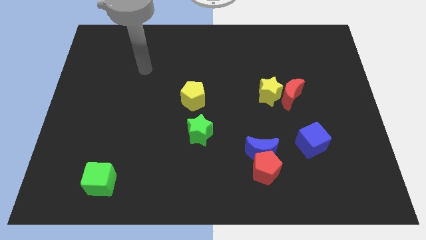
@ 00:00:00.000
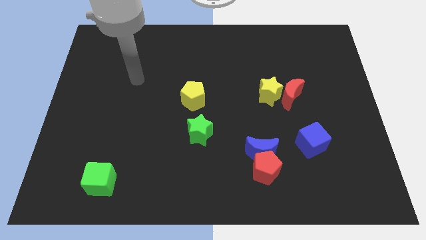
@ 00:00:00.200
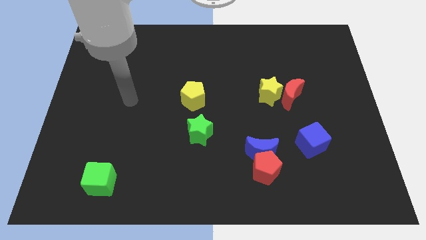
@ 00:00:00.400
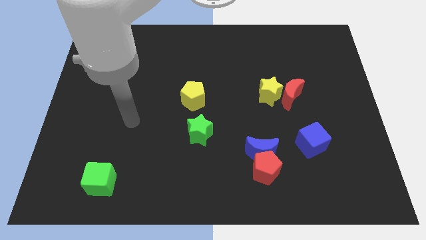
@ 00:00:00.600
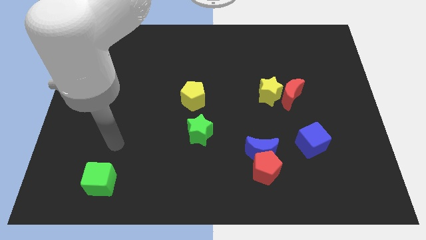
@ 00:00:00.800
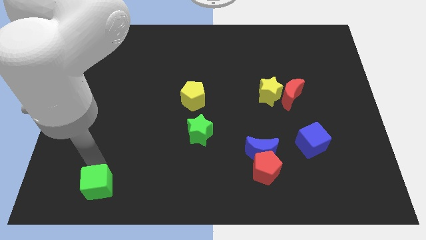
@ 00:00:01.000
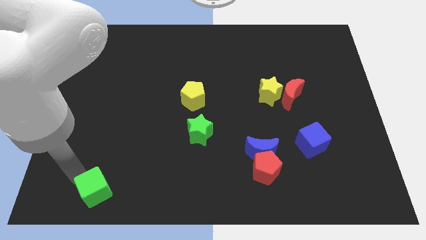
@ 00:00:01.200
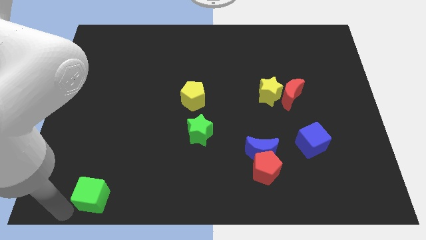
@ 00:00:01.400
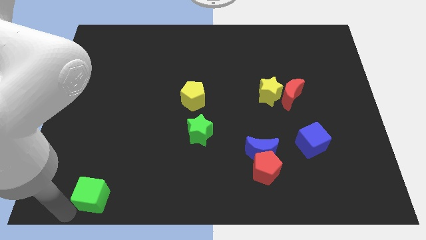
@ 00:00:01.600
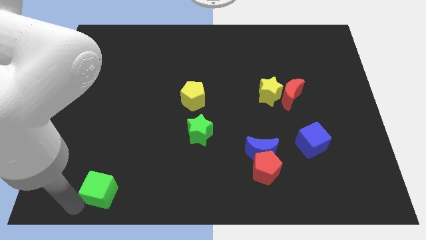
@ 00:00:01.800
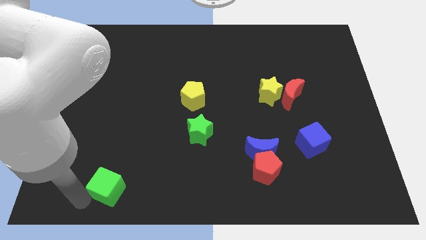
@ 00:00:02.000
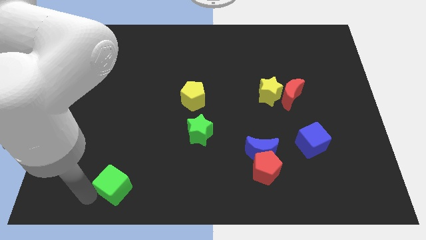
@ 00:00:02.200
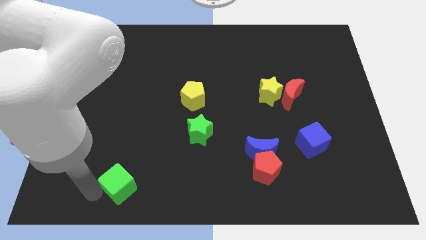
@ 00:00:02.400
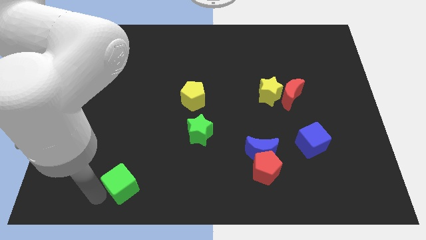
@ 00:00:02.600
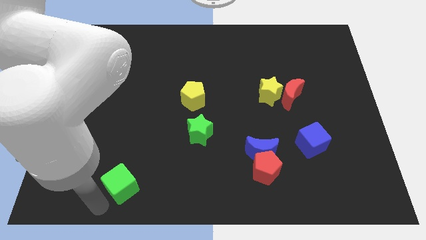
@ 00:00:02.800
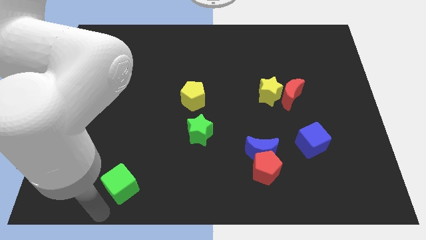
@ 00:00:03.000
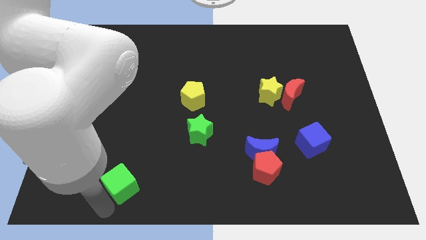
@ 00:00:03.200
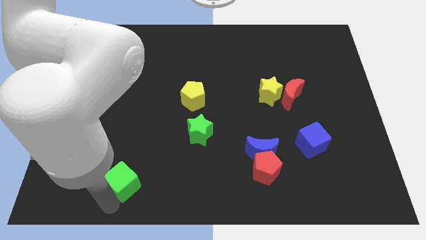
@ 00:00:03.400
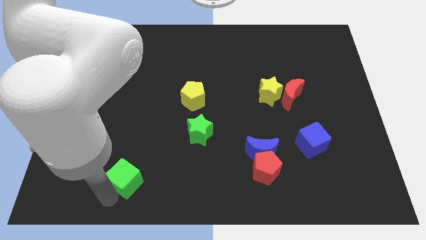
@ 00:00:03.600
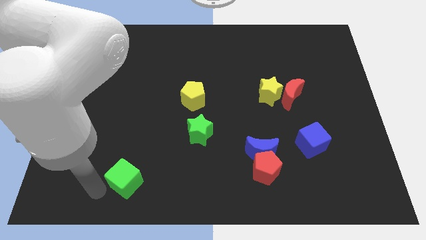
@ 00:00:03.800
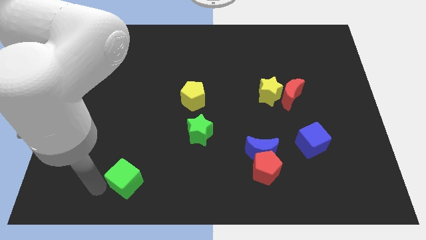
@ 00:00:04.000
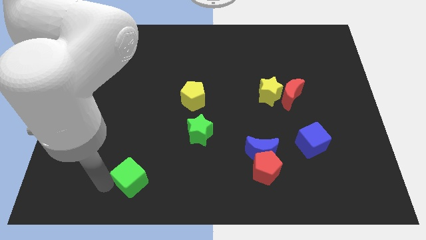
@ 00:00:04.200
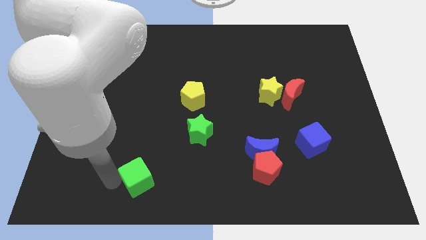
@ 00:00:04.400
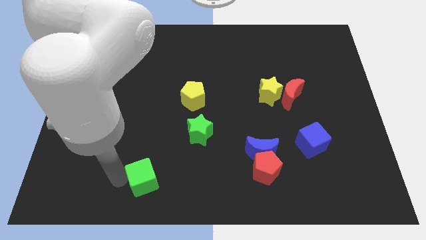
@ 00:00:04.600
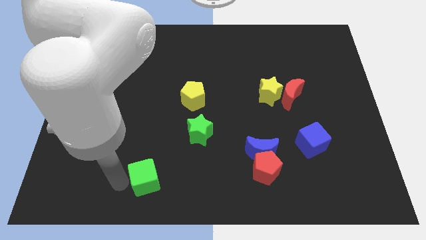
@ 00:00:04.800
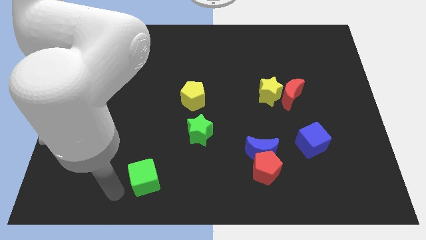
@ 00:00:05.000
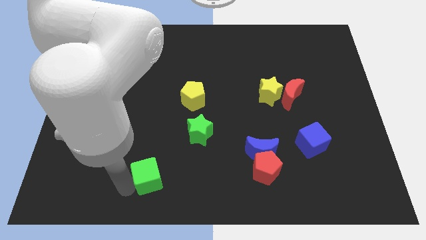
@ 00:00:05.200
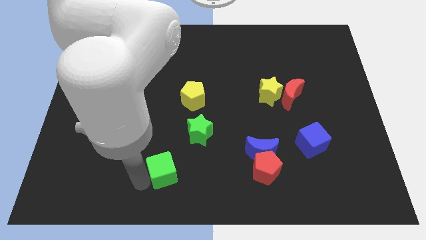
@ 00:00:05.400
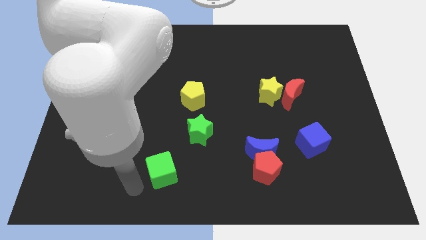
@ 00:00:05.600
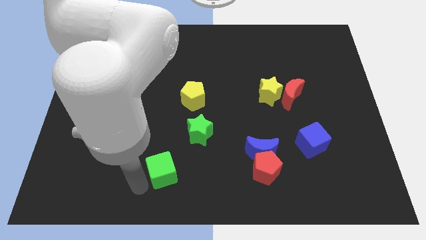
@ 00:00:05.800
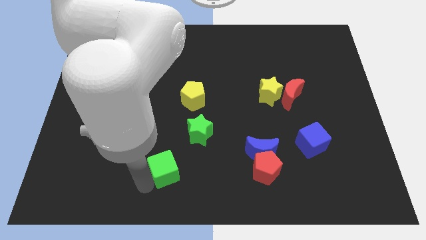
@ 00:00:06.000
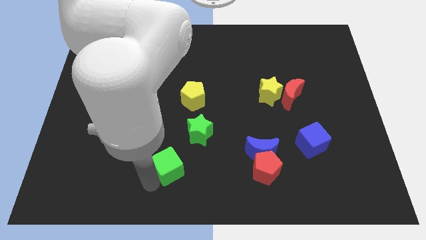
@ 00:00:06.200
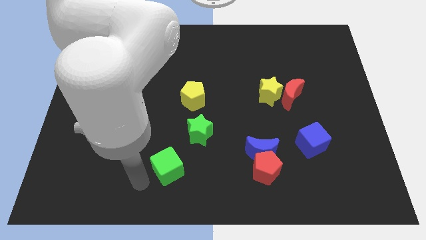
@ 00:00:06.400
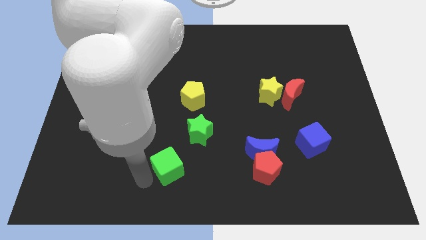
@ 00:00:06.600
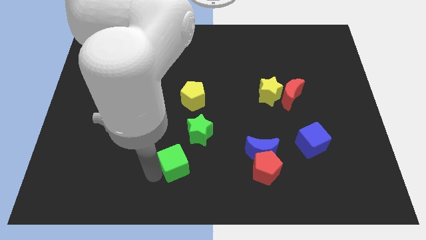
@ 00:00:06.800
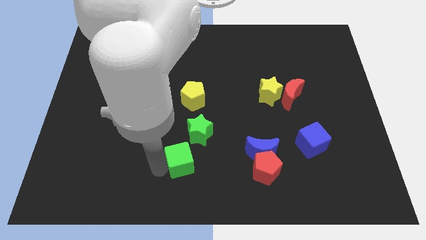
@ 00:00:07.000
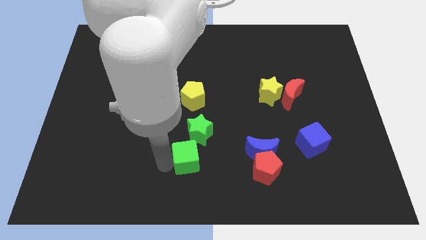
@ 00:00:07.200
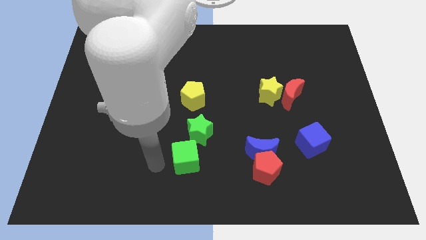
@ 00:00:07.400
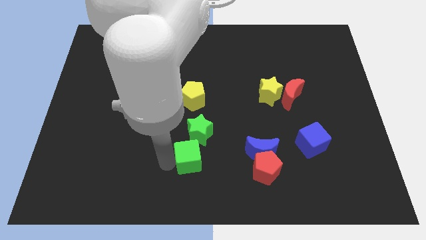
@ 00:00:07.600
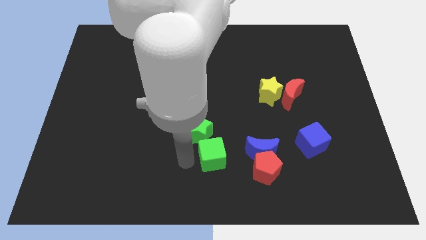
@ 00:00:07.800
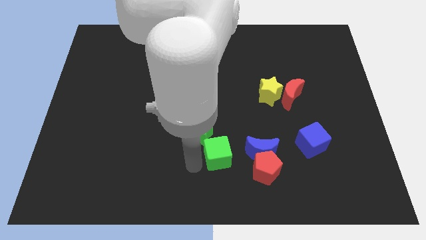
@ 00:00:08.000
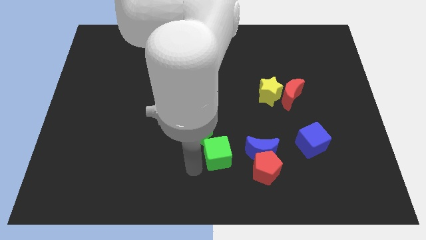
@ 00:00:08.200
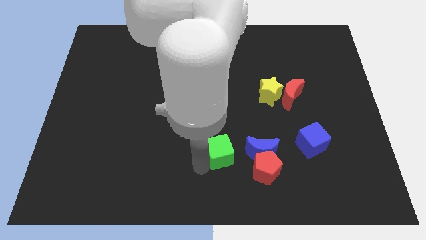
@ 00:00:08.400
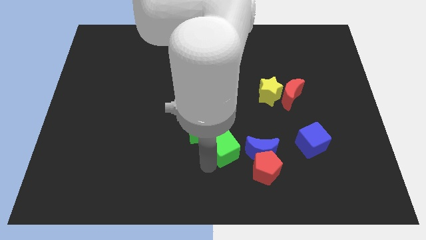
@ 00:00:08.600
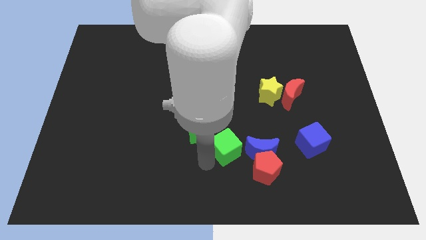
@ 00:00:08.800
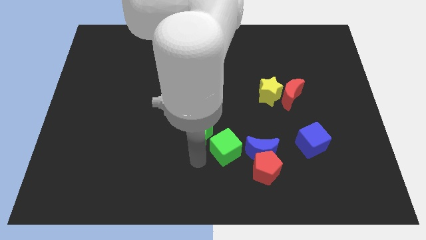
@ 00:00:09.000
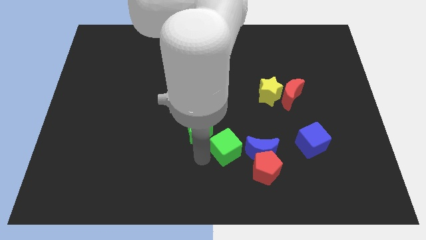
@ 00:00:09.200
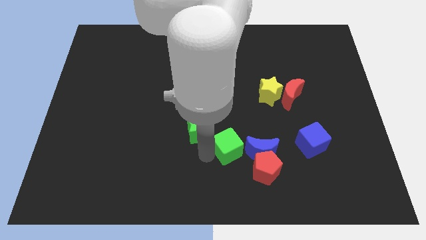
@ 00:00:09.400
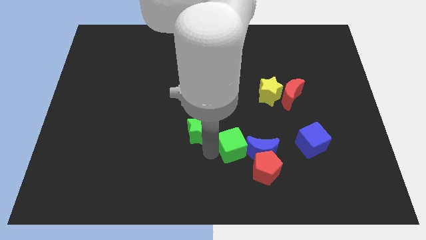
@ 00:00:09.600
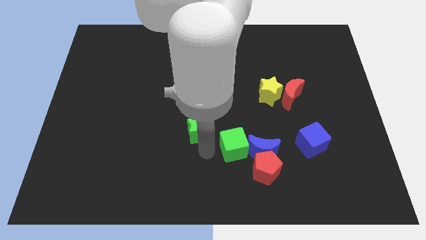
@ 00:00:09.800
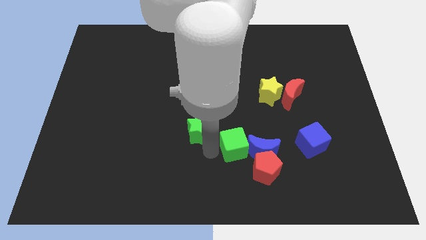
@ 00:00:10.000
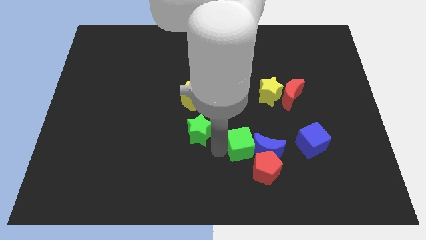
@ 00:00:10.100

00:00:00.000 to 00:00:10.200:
push the green cube just left of the blue cube

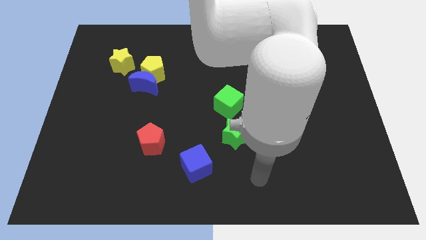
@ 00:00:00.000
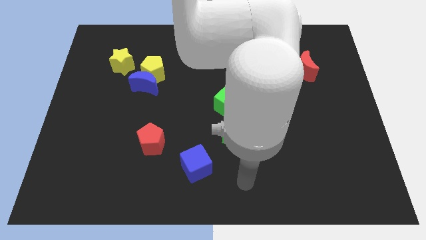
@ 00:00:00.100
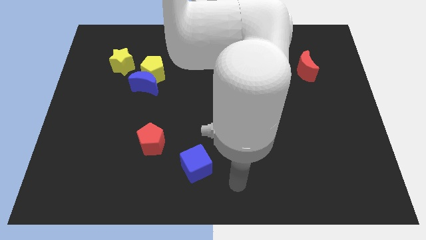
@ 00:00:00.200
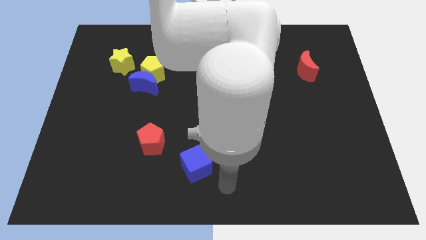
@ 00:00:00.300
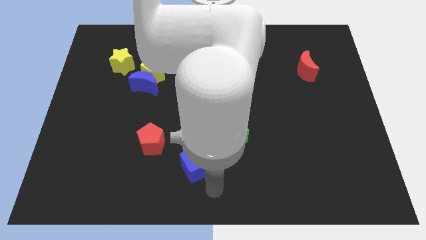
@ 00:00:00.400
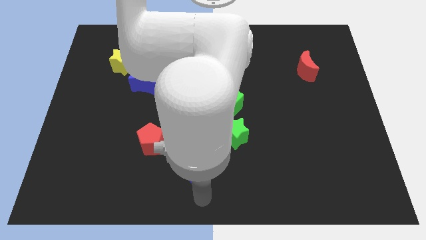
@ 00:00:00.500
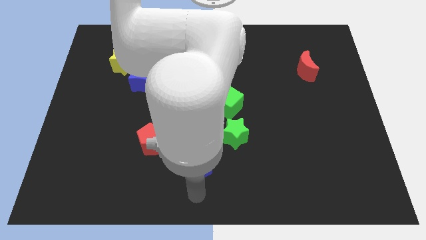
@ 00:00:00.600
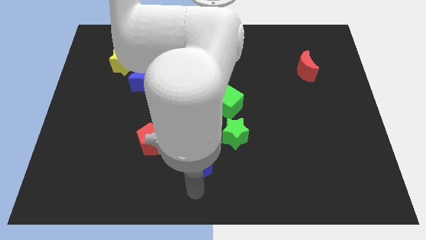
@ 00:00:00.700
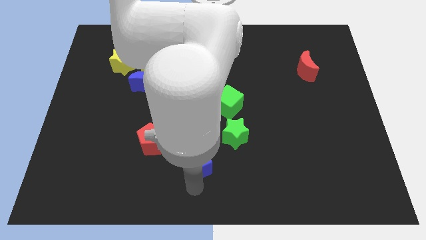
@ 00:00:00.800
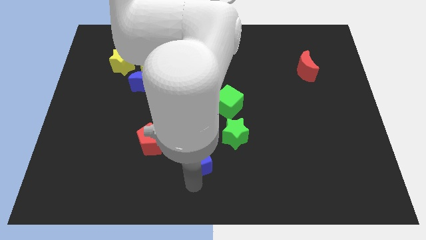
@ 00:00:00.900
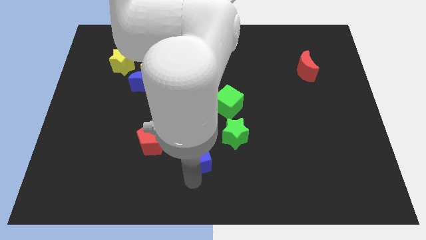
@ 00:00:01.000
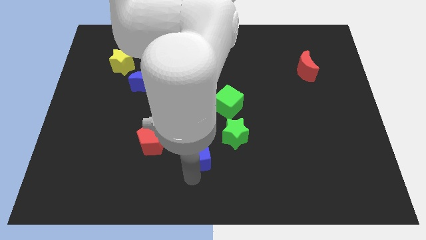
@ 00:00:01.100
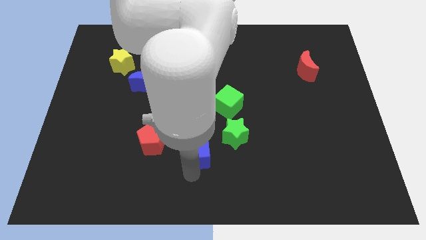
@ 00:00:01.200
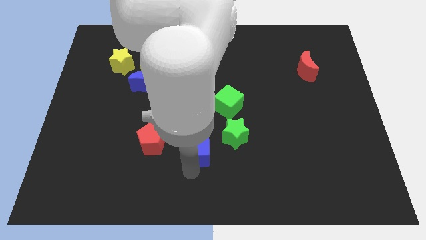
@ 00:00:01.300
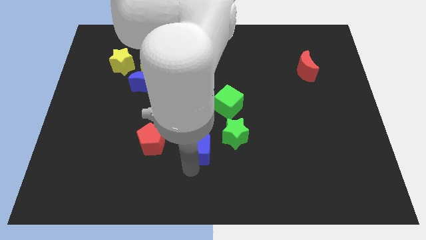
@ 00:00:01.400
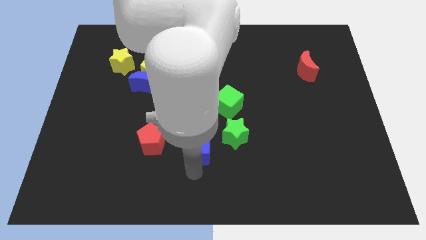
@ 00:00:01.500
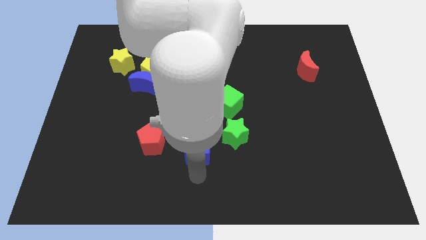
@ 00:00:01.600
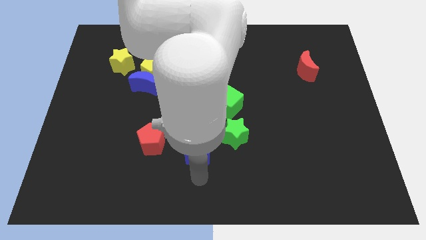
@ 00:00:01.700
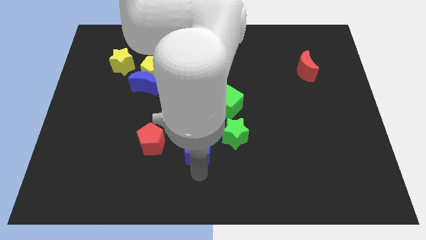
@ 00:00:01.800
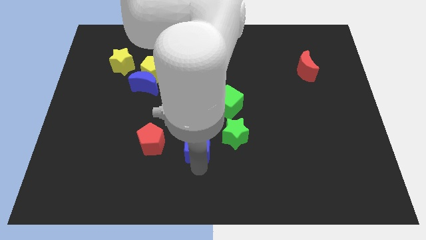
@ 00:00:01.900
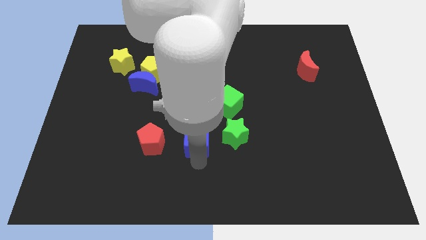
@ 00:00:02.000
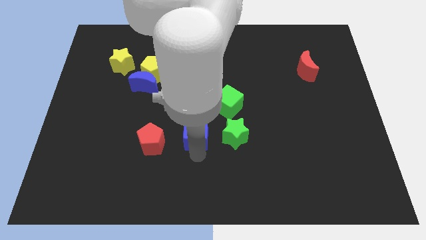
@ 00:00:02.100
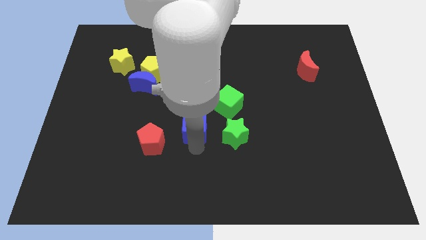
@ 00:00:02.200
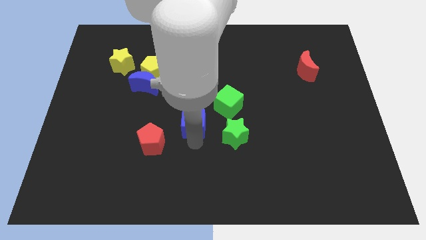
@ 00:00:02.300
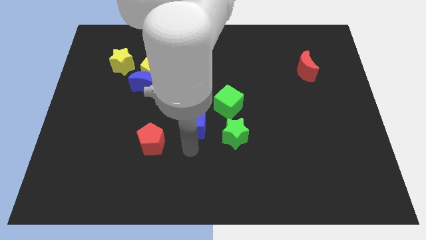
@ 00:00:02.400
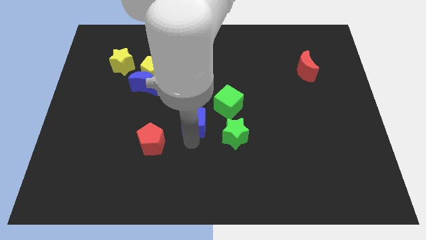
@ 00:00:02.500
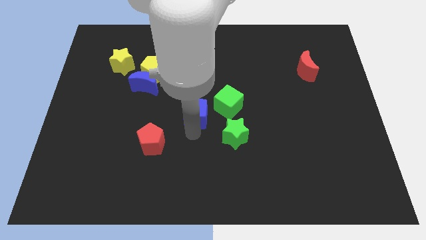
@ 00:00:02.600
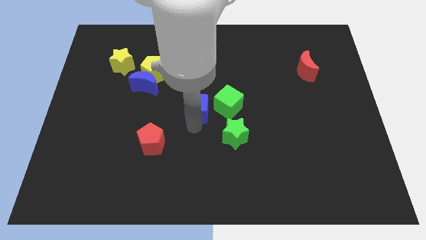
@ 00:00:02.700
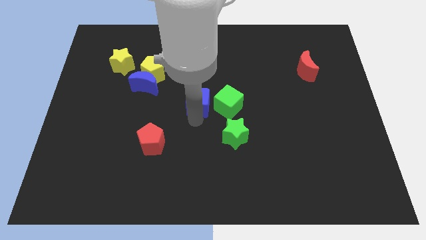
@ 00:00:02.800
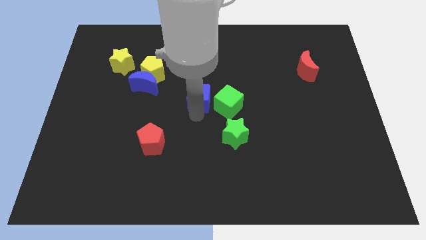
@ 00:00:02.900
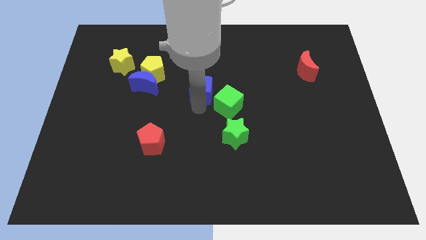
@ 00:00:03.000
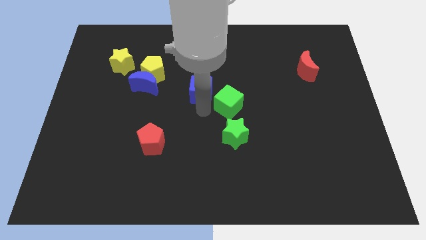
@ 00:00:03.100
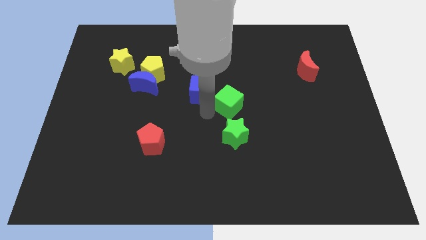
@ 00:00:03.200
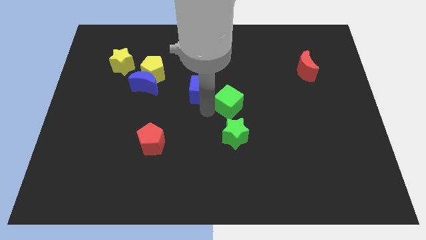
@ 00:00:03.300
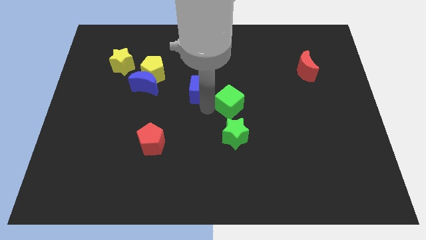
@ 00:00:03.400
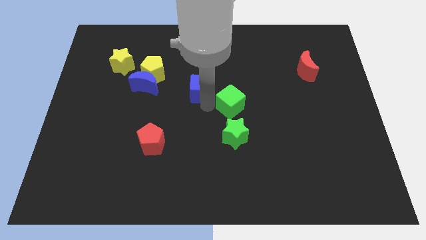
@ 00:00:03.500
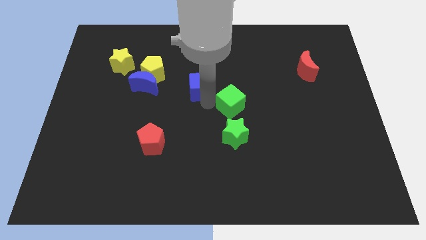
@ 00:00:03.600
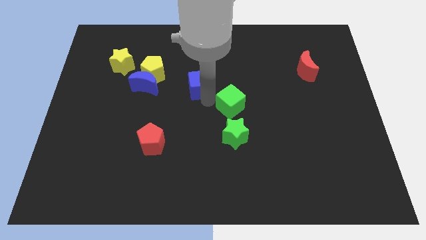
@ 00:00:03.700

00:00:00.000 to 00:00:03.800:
push the blue cube to the right side of the yellow pentagon
